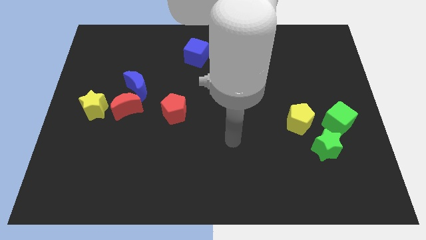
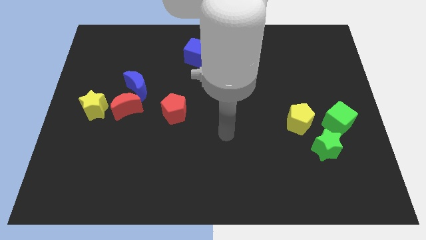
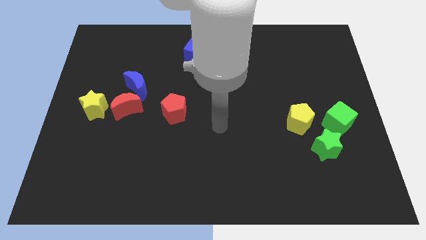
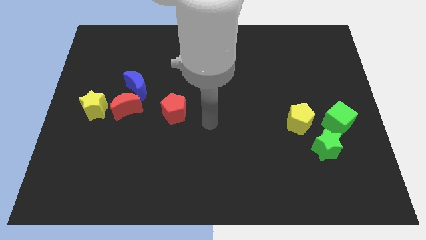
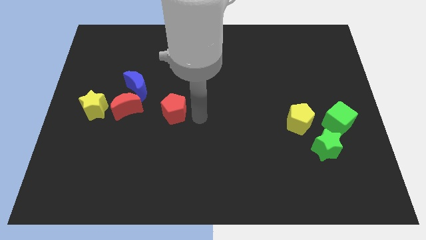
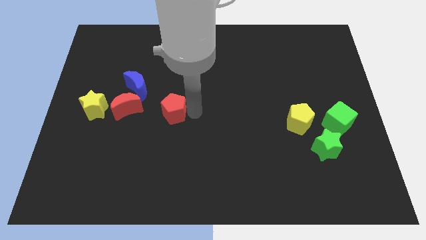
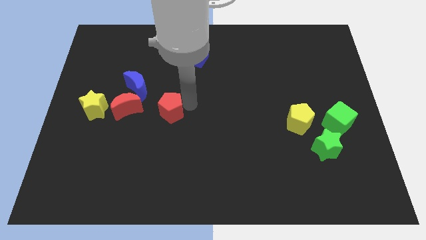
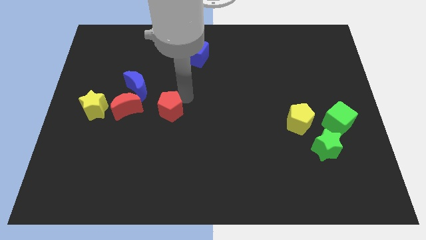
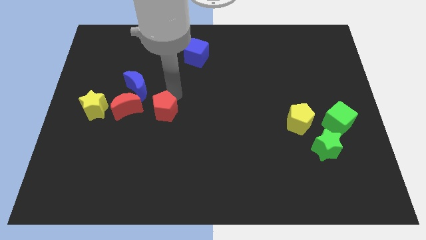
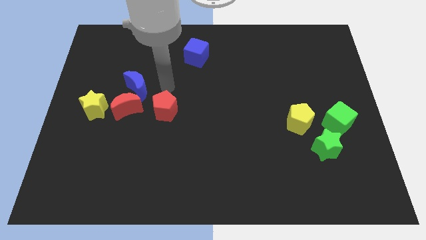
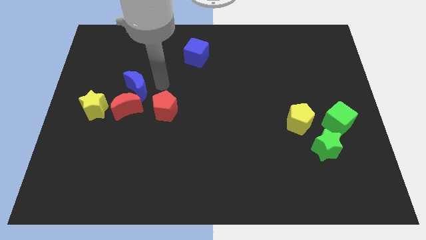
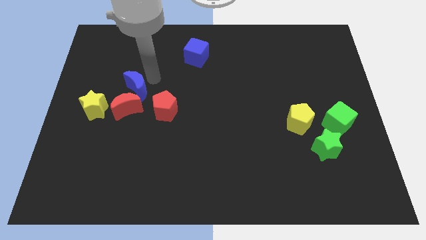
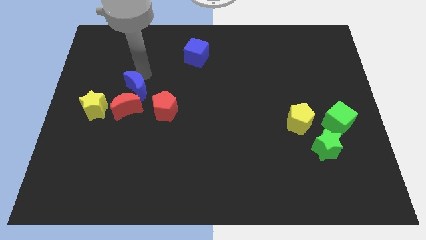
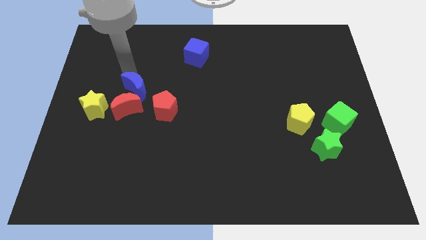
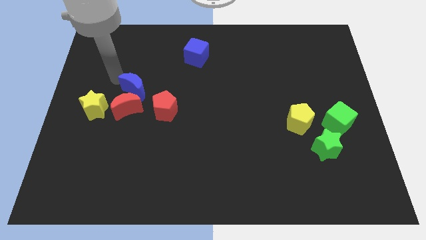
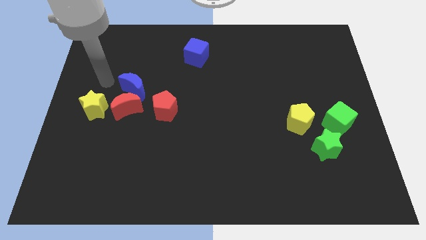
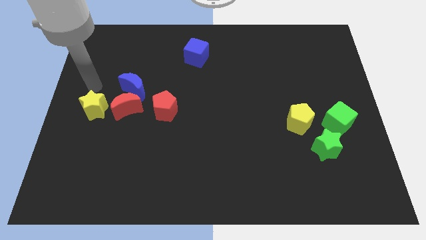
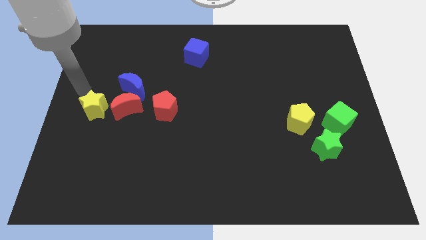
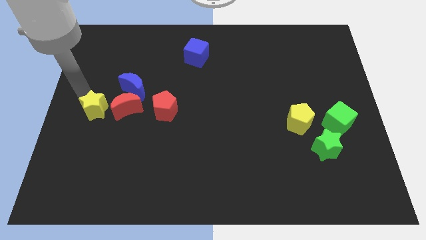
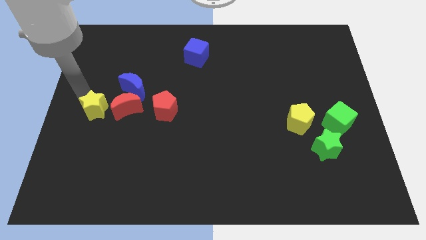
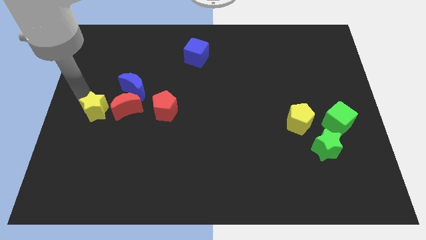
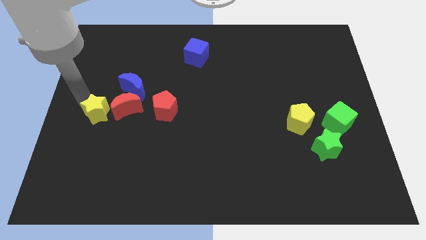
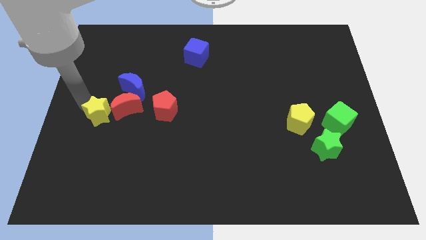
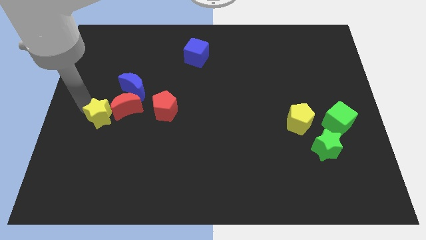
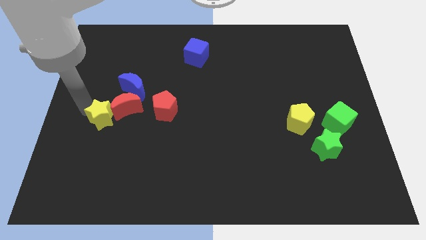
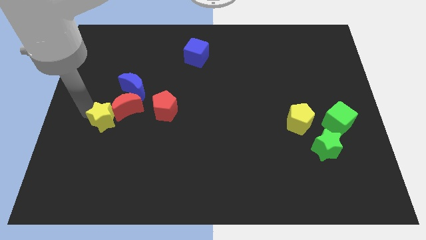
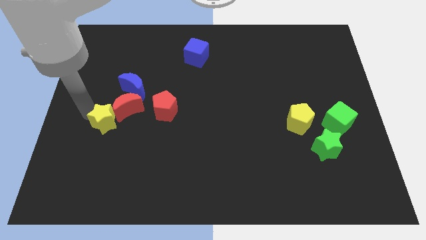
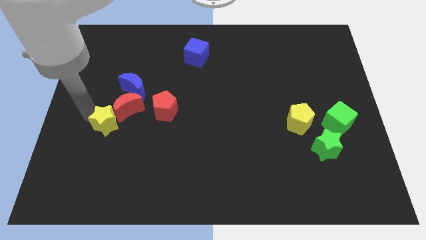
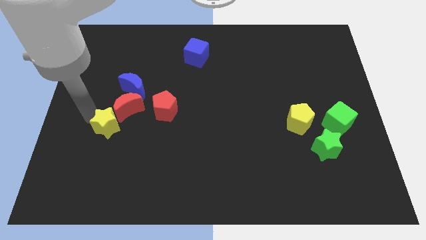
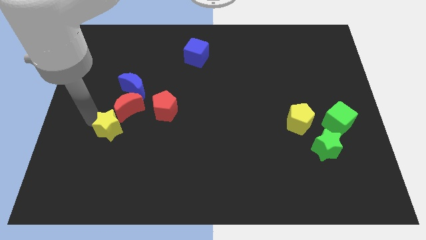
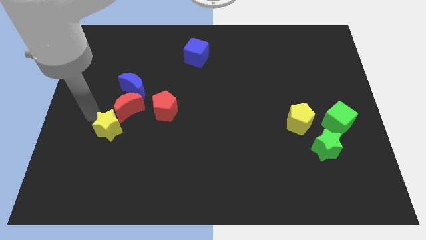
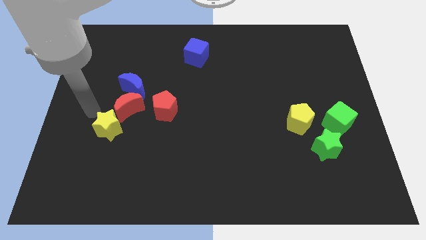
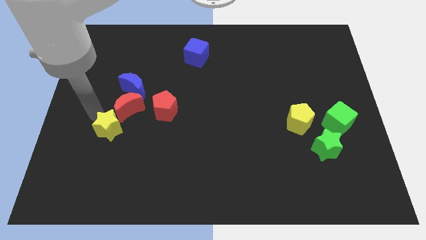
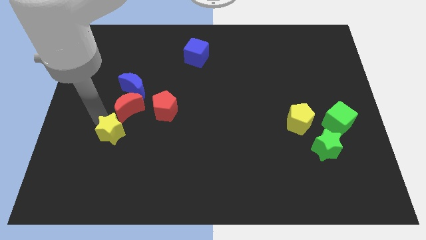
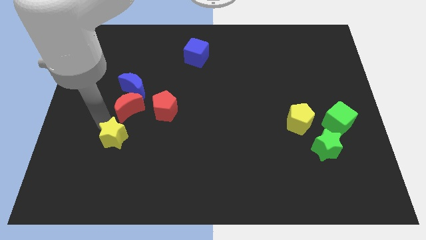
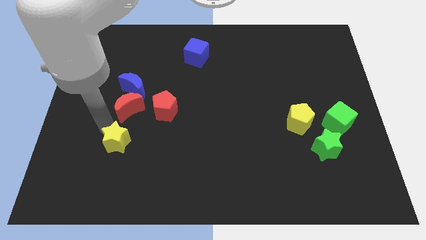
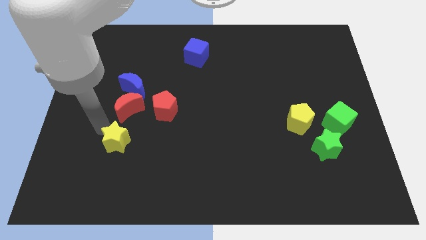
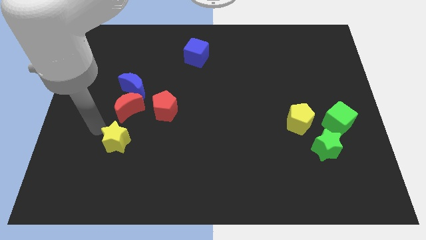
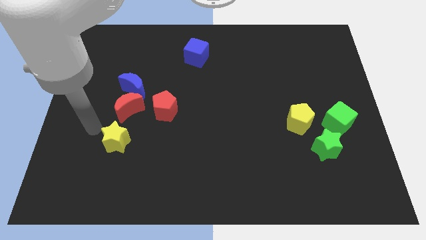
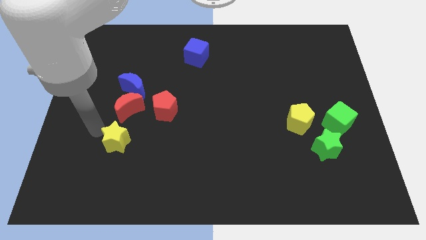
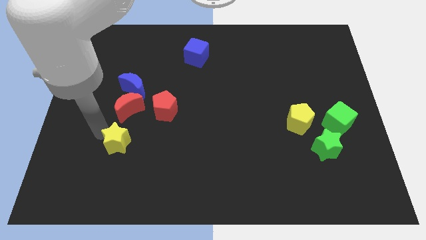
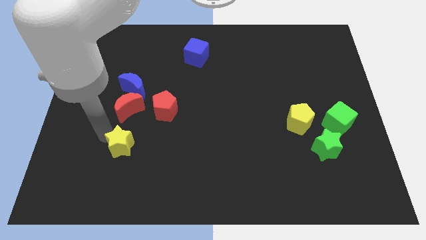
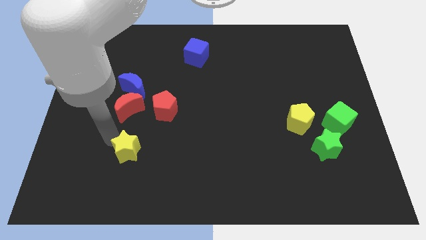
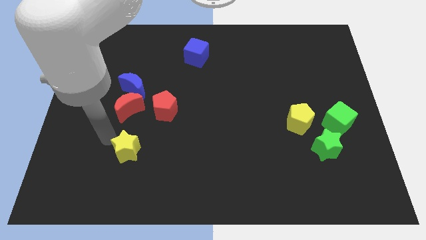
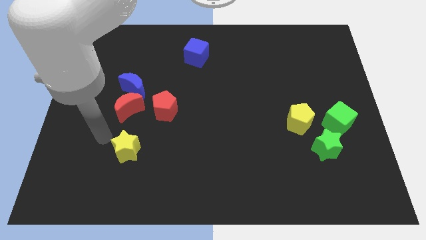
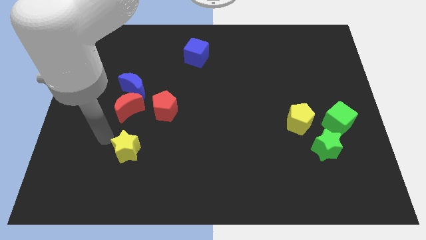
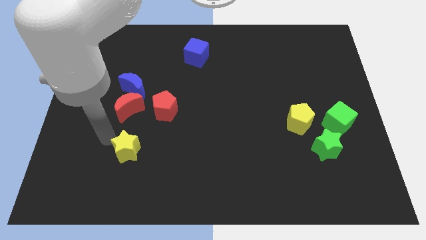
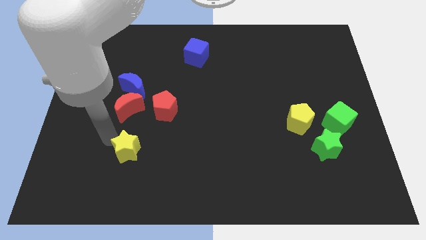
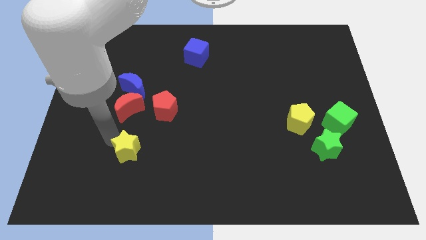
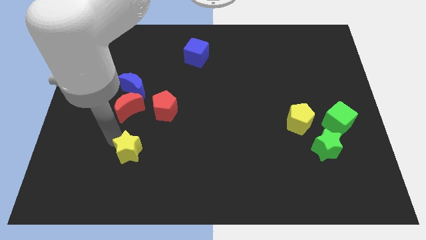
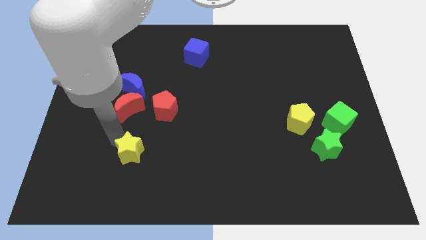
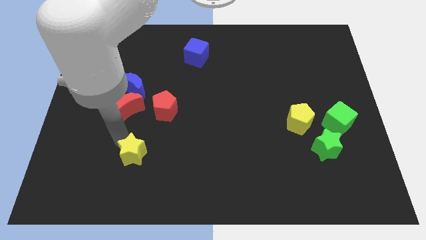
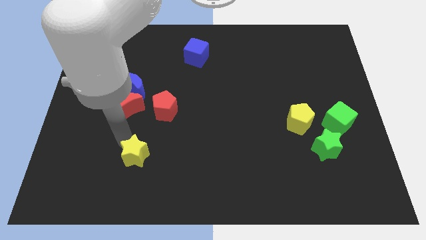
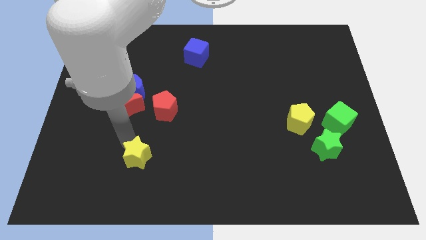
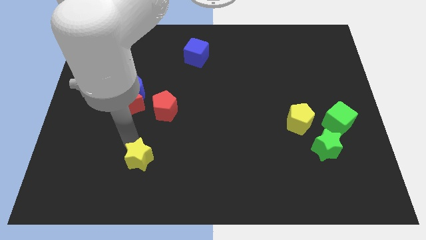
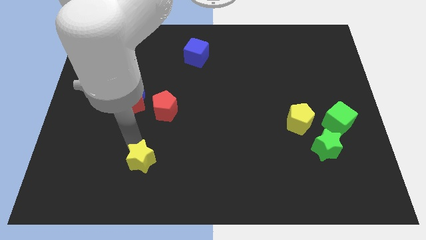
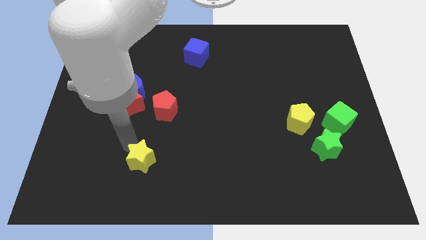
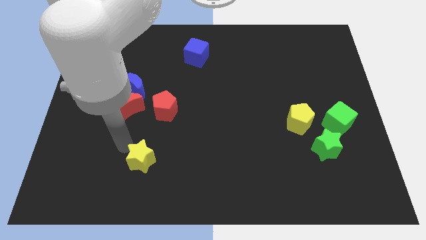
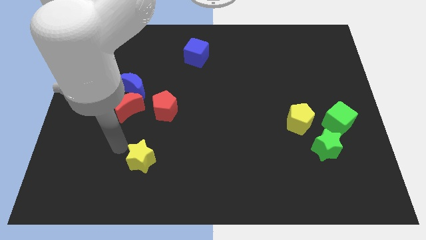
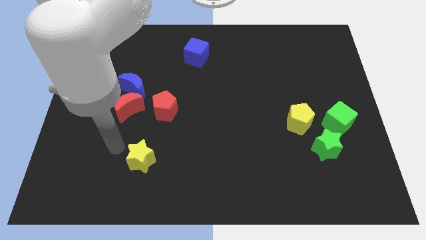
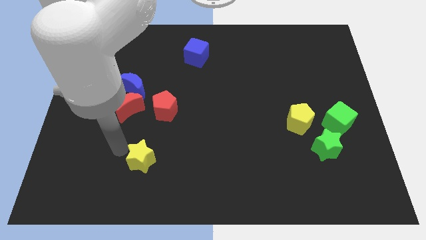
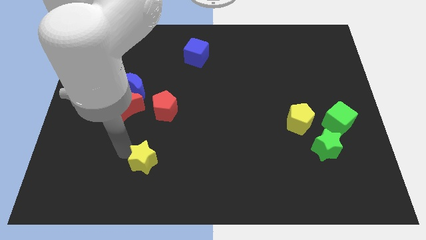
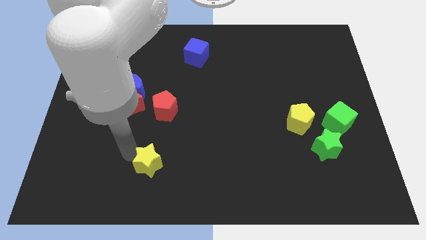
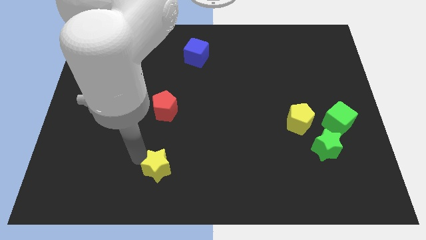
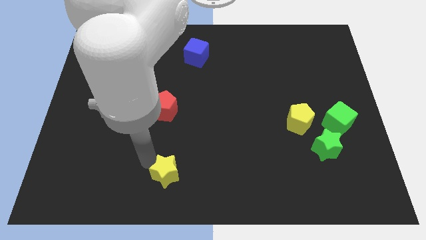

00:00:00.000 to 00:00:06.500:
push the yellow star to the bottom side
